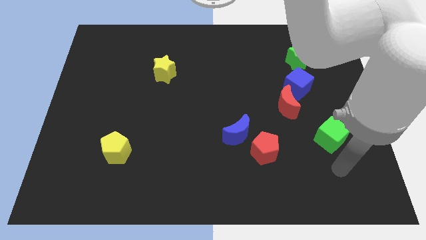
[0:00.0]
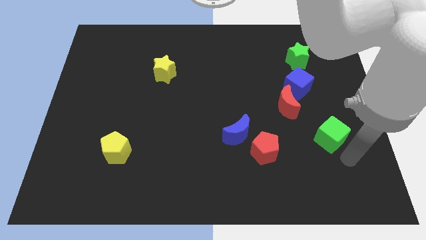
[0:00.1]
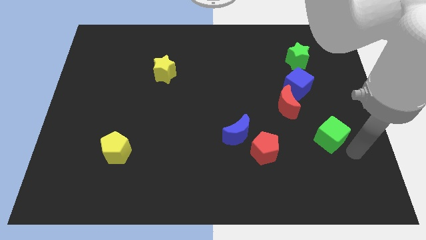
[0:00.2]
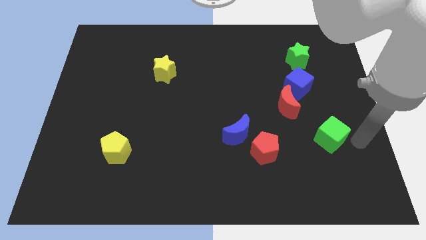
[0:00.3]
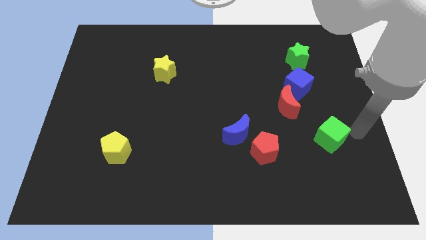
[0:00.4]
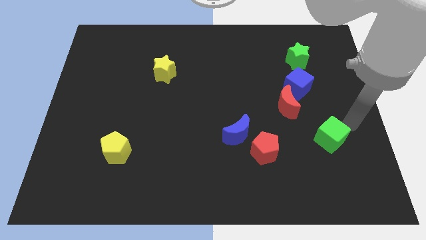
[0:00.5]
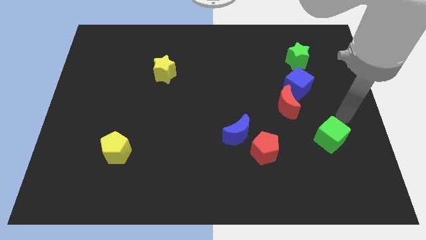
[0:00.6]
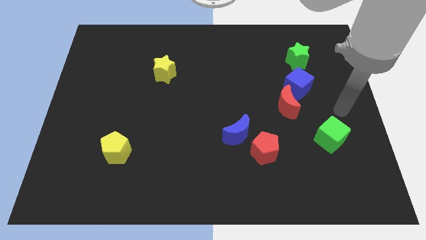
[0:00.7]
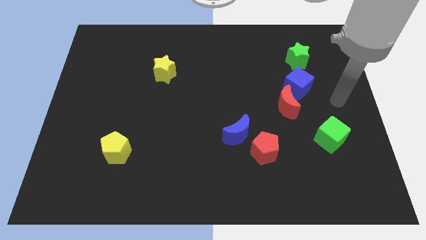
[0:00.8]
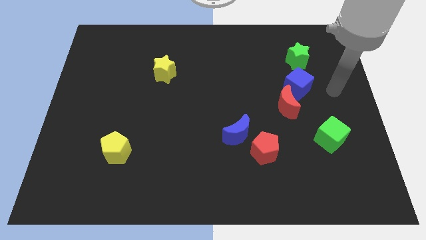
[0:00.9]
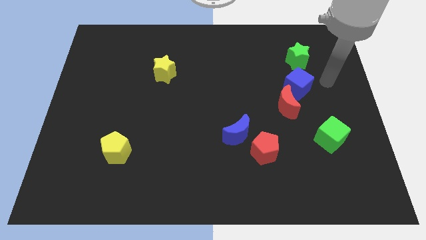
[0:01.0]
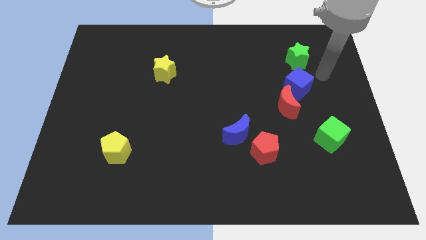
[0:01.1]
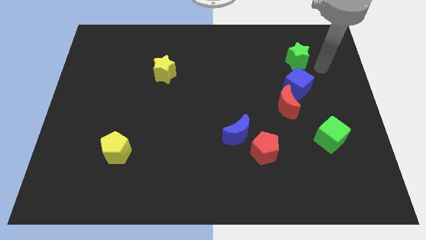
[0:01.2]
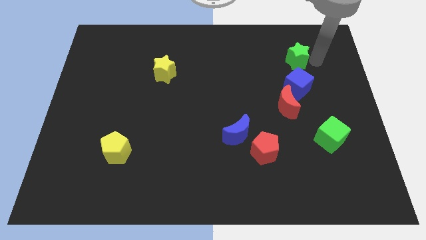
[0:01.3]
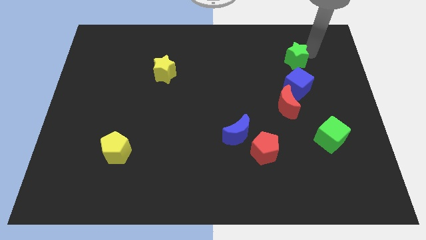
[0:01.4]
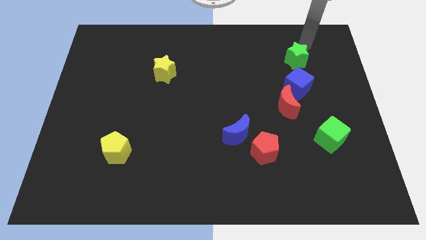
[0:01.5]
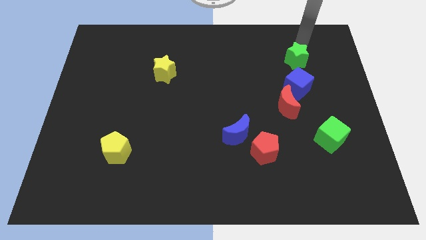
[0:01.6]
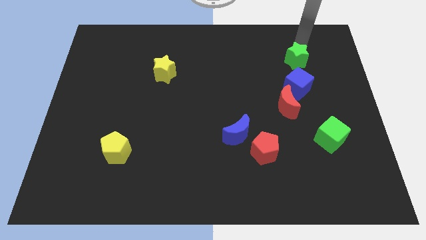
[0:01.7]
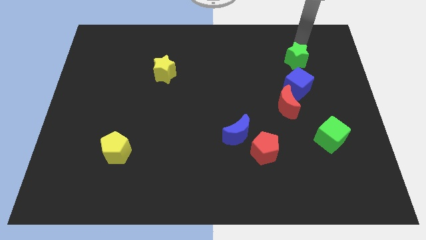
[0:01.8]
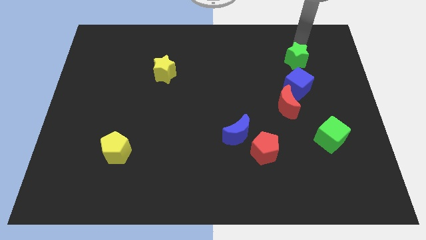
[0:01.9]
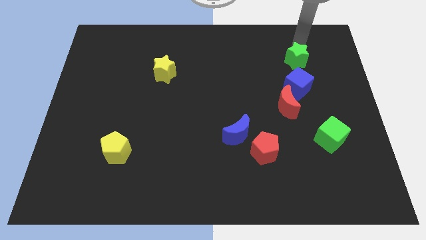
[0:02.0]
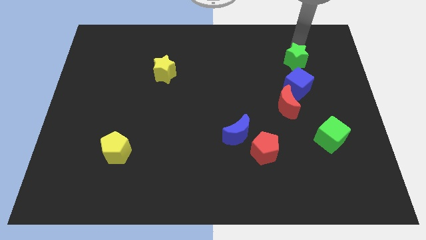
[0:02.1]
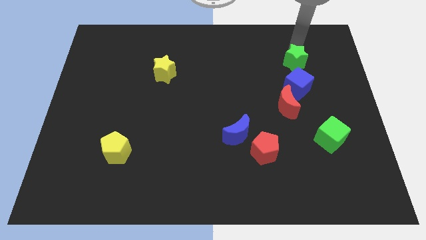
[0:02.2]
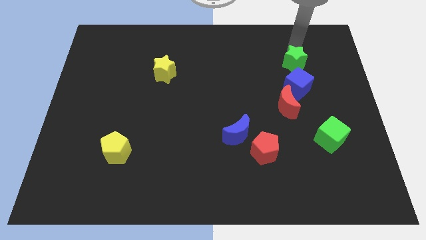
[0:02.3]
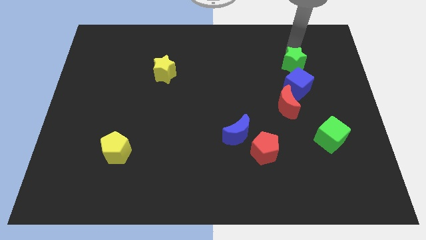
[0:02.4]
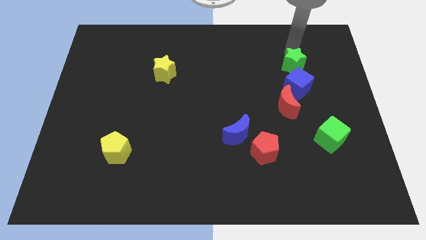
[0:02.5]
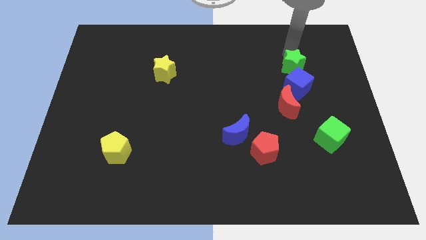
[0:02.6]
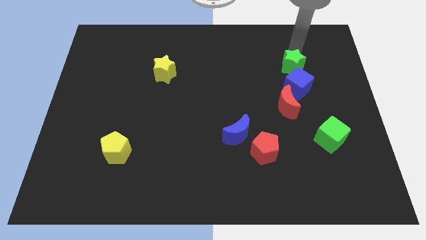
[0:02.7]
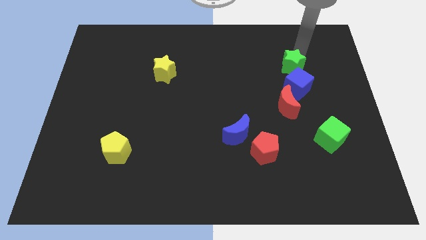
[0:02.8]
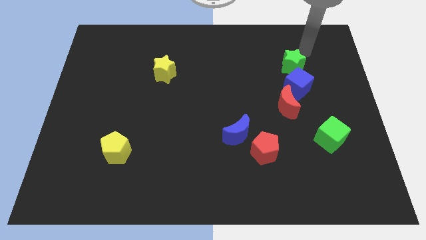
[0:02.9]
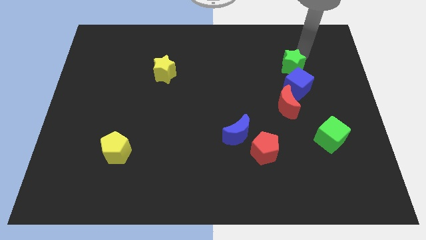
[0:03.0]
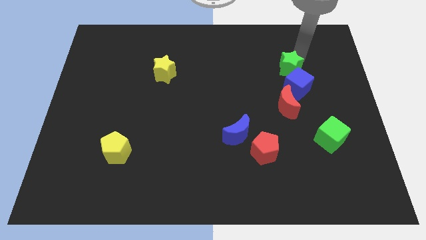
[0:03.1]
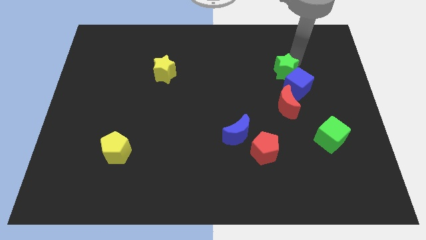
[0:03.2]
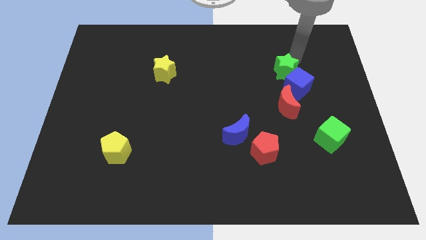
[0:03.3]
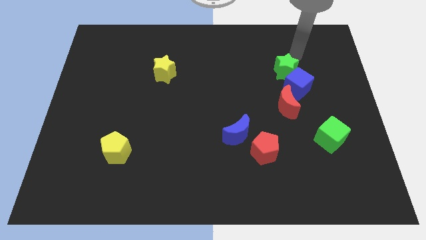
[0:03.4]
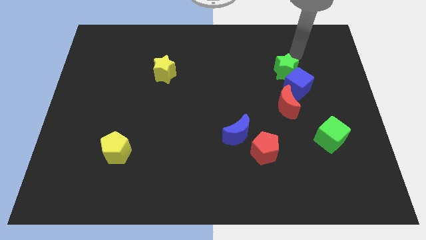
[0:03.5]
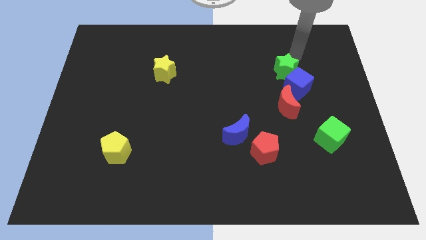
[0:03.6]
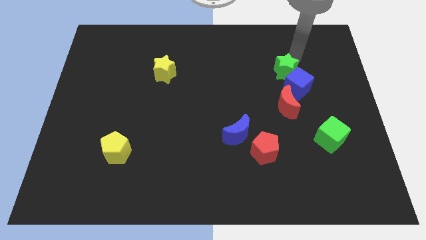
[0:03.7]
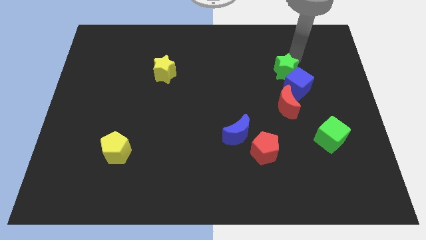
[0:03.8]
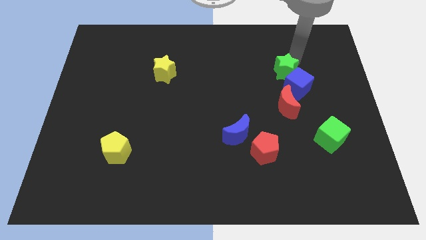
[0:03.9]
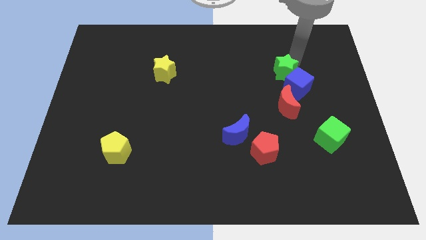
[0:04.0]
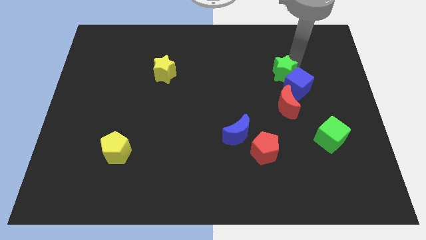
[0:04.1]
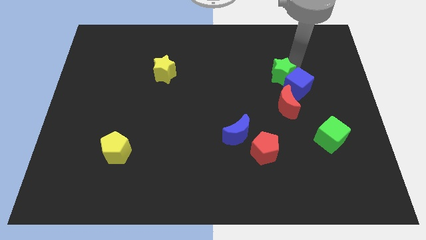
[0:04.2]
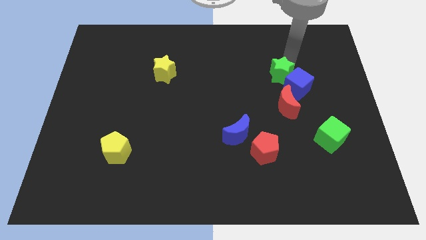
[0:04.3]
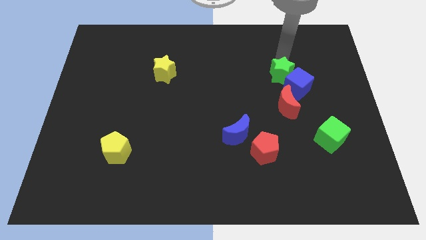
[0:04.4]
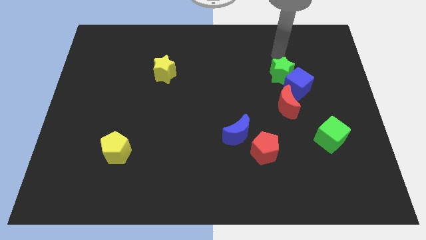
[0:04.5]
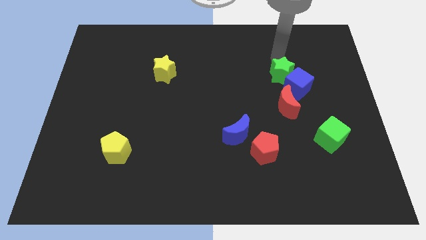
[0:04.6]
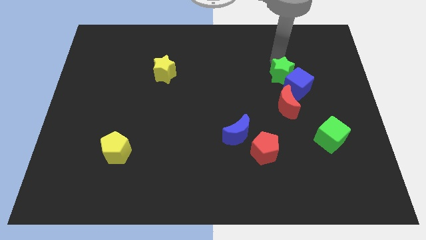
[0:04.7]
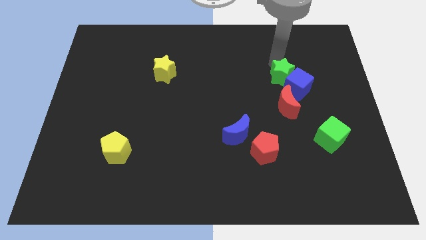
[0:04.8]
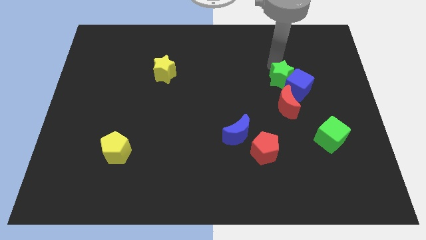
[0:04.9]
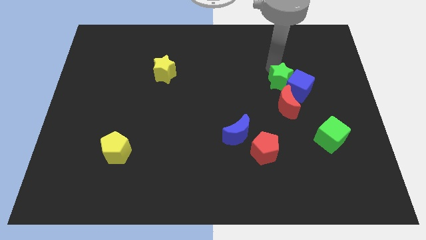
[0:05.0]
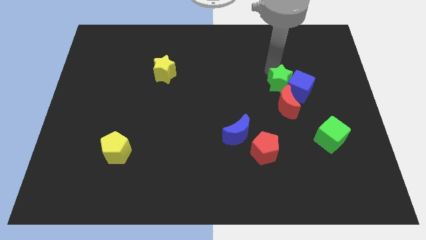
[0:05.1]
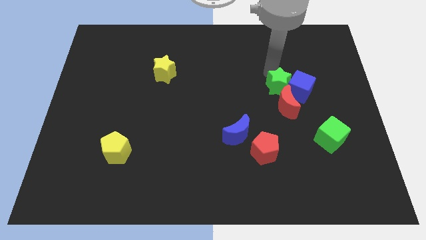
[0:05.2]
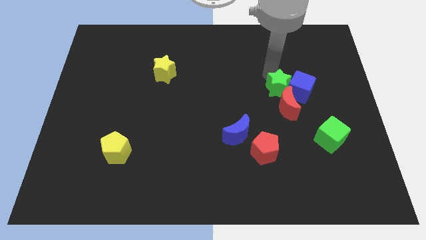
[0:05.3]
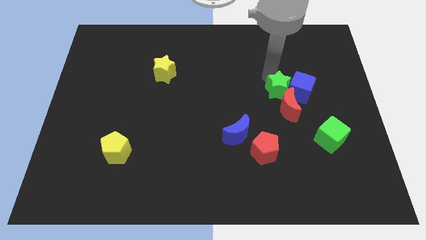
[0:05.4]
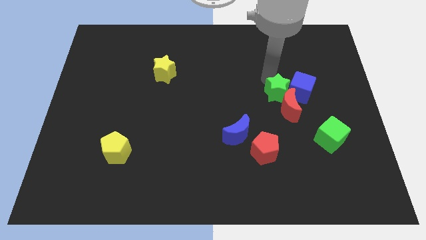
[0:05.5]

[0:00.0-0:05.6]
put the green star to the red moon

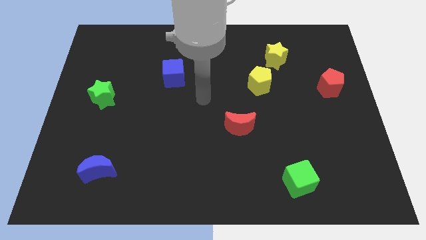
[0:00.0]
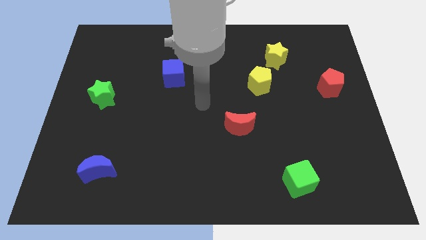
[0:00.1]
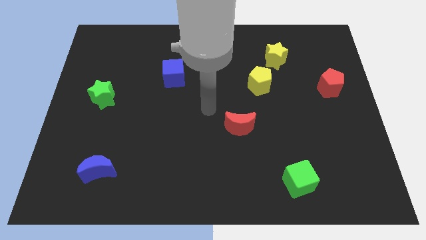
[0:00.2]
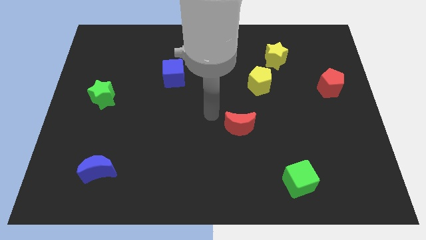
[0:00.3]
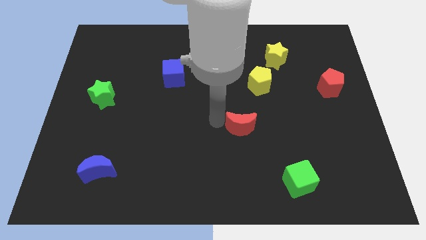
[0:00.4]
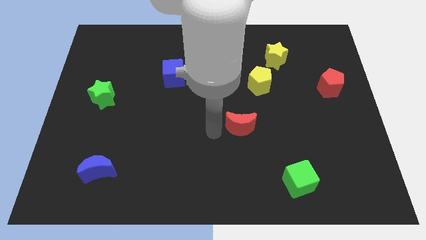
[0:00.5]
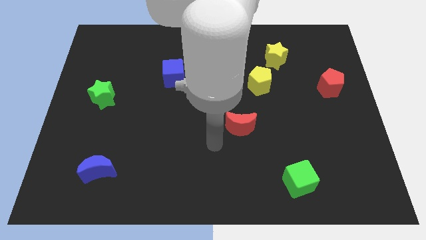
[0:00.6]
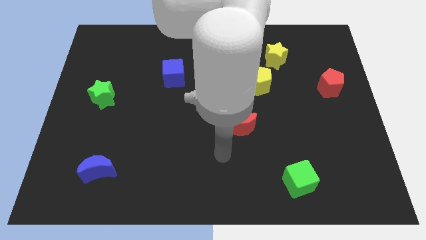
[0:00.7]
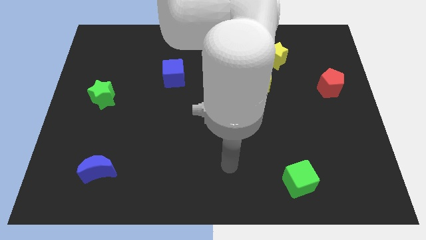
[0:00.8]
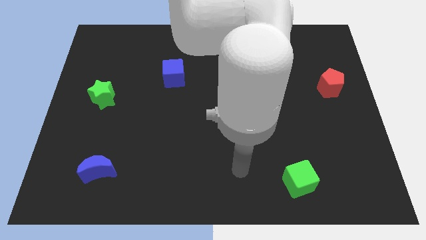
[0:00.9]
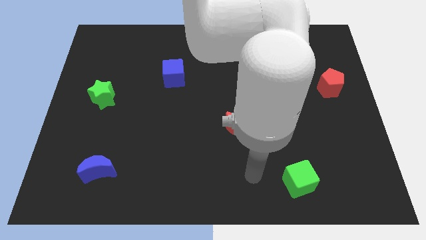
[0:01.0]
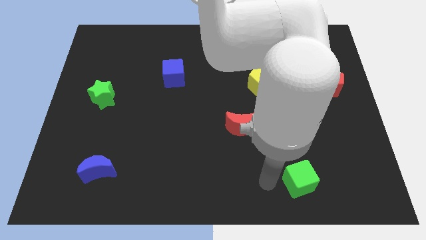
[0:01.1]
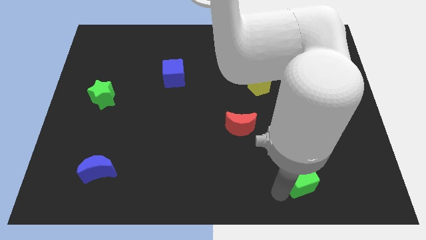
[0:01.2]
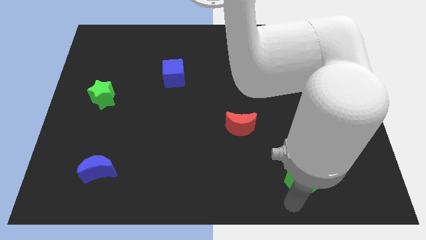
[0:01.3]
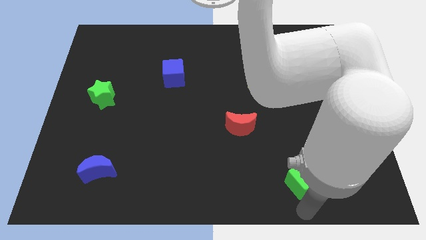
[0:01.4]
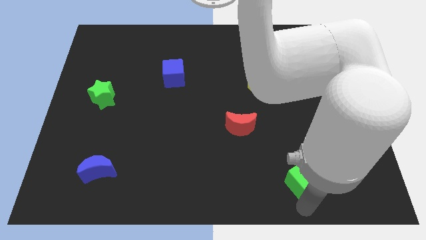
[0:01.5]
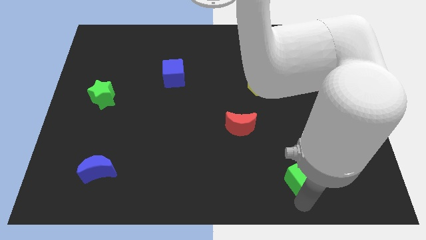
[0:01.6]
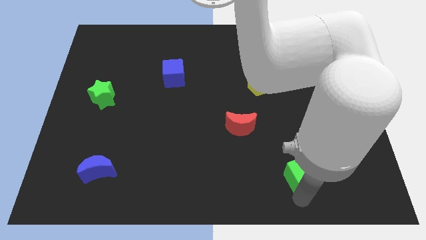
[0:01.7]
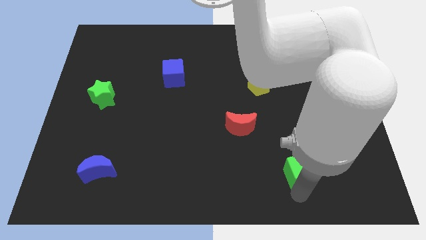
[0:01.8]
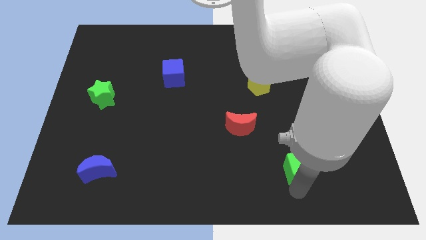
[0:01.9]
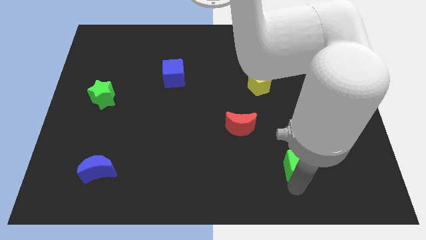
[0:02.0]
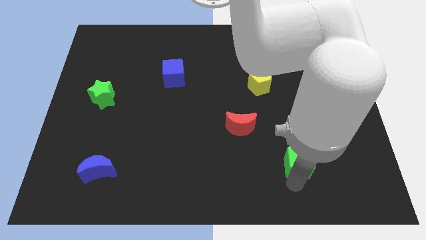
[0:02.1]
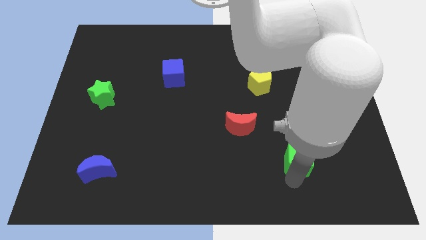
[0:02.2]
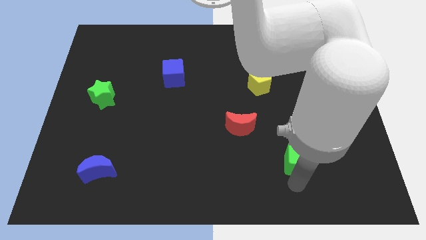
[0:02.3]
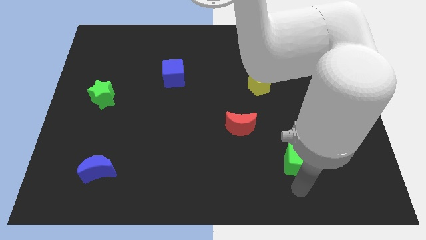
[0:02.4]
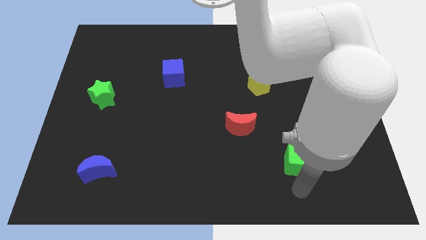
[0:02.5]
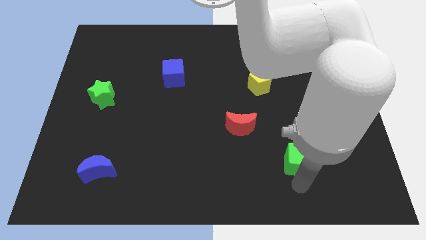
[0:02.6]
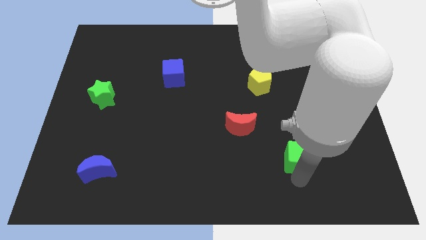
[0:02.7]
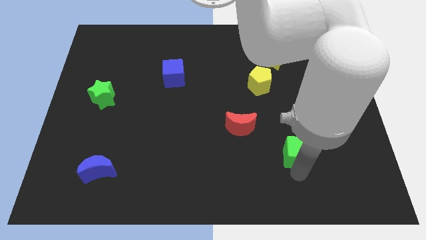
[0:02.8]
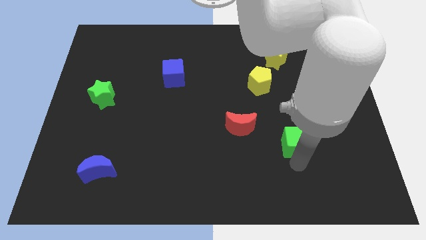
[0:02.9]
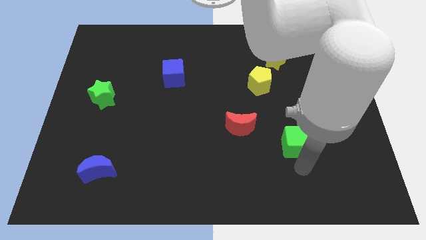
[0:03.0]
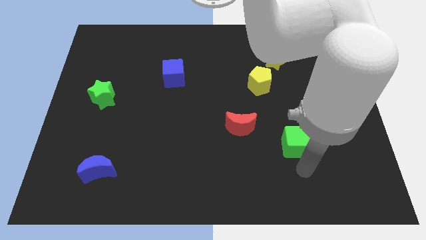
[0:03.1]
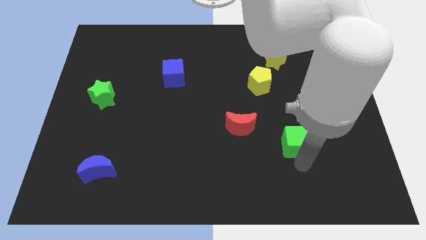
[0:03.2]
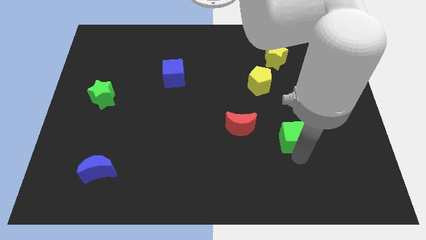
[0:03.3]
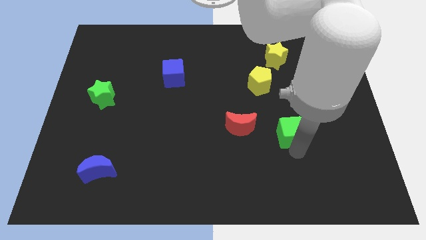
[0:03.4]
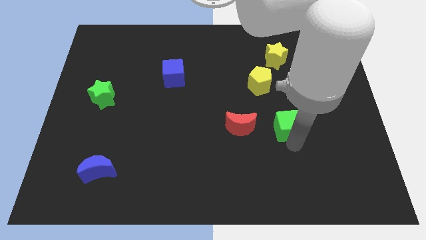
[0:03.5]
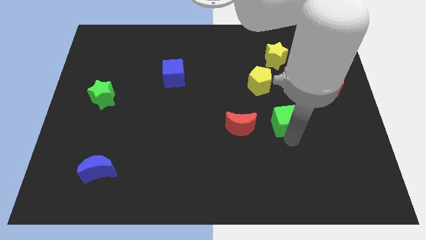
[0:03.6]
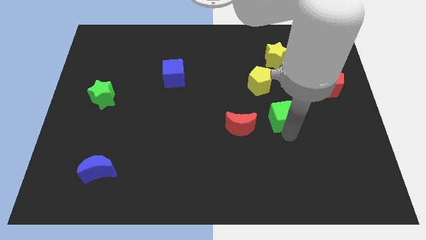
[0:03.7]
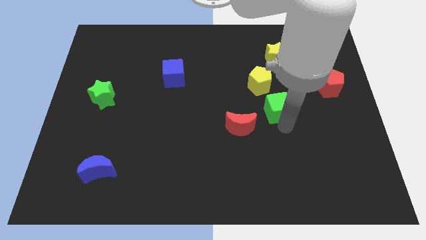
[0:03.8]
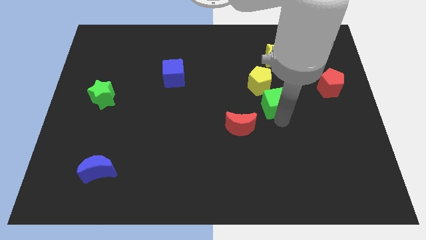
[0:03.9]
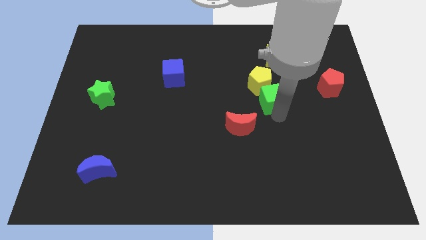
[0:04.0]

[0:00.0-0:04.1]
push the green cube to the yellow pentagon
